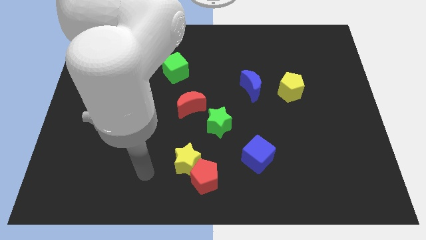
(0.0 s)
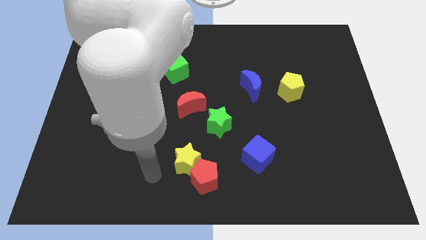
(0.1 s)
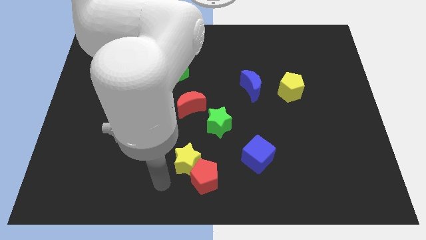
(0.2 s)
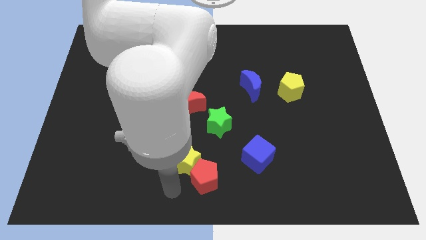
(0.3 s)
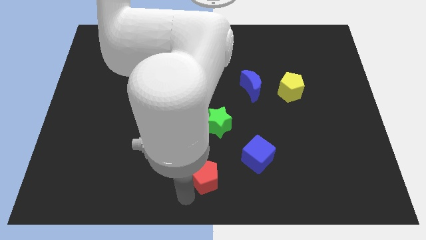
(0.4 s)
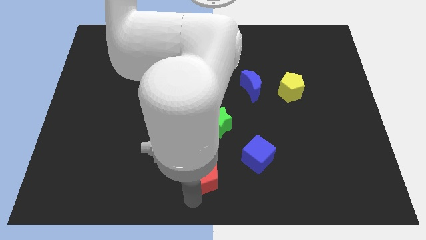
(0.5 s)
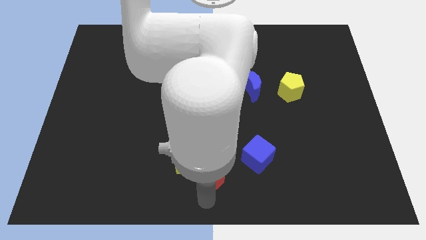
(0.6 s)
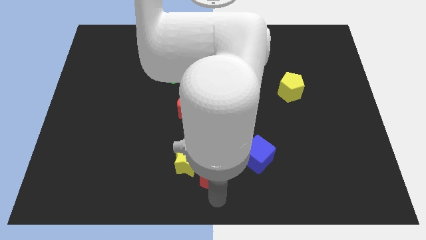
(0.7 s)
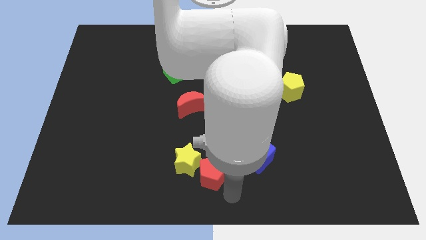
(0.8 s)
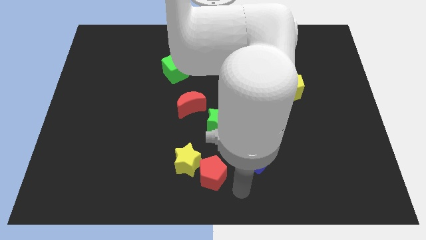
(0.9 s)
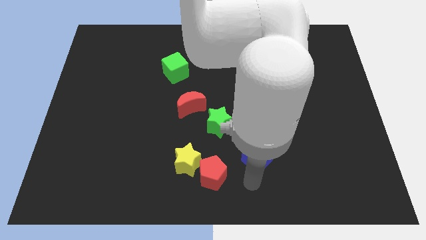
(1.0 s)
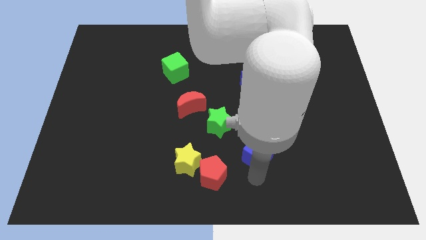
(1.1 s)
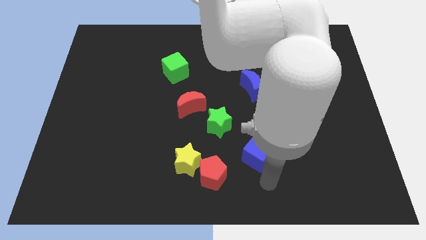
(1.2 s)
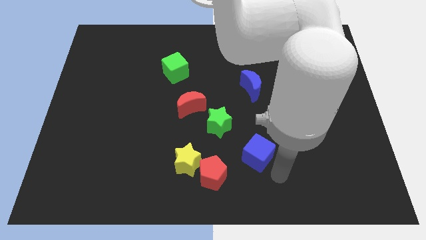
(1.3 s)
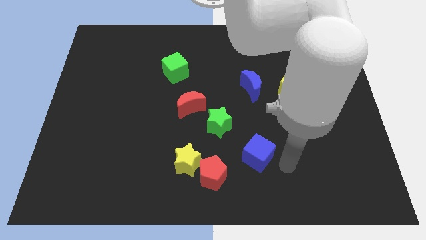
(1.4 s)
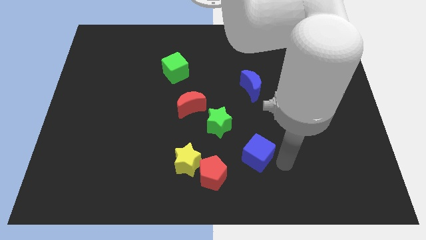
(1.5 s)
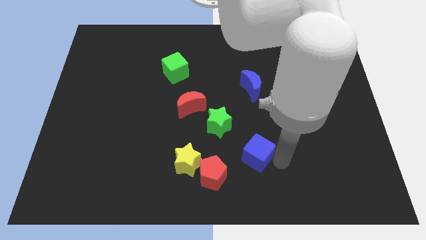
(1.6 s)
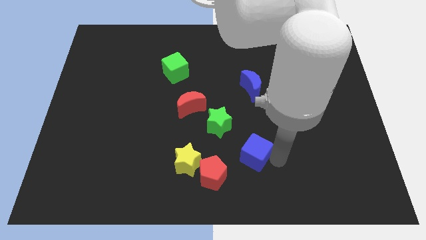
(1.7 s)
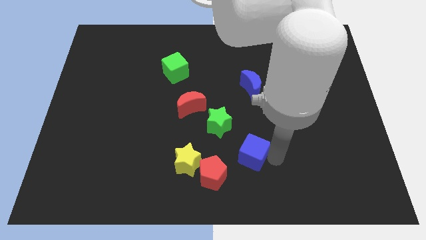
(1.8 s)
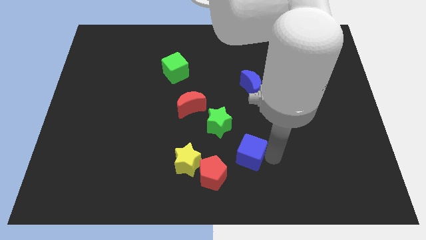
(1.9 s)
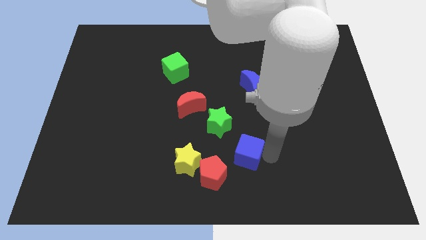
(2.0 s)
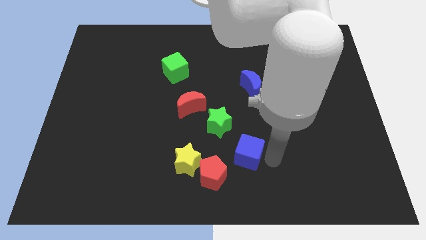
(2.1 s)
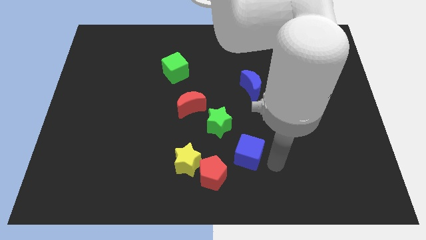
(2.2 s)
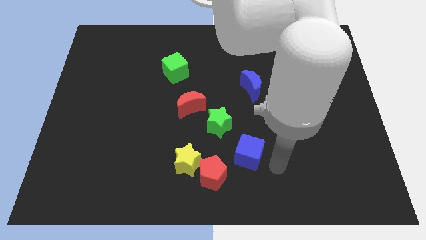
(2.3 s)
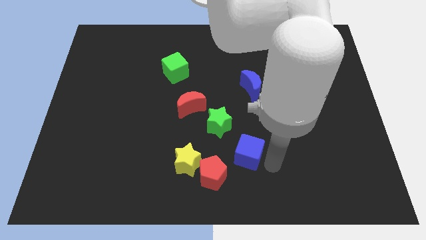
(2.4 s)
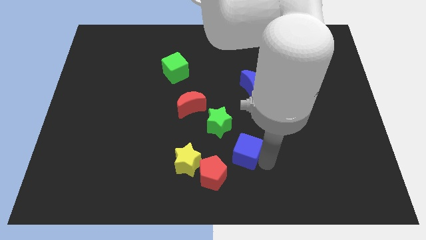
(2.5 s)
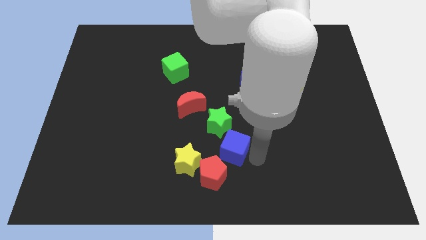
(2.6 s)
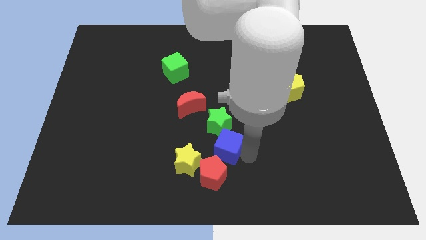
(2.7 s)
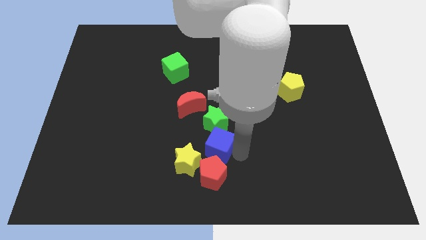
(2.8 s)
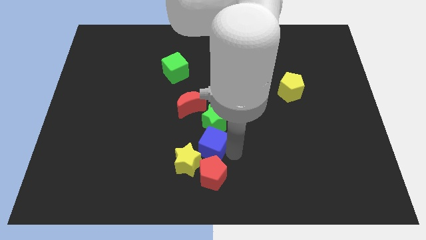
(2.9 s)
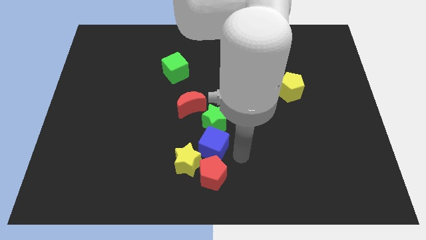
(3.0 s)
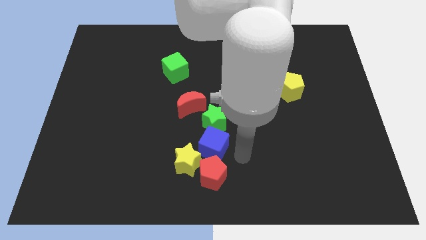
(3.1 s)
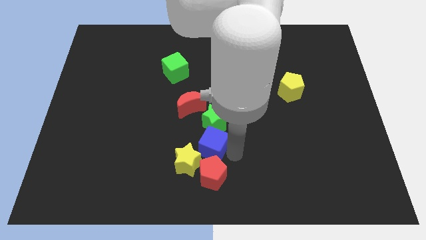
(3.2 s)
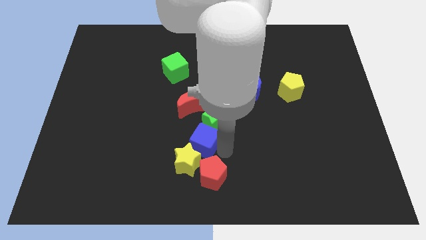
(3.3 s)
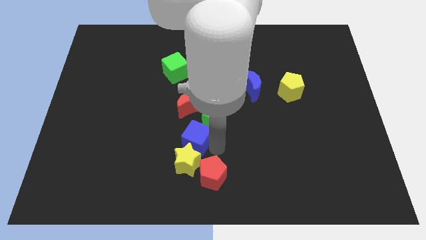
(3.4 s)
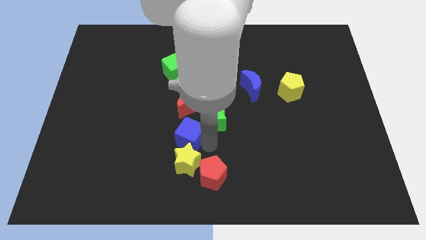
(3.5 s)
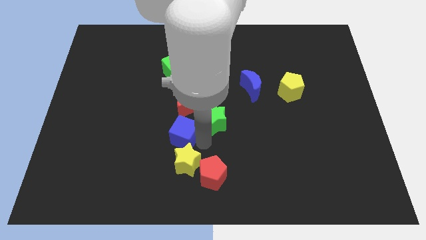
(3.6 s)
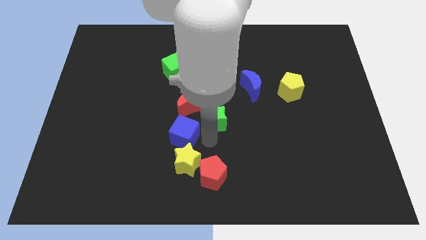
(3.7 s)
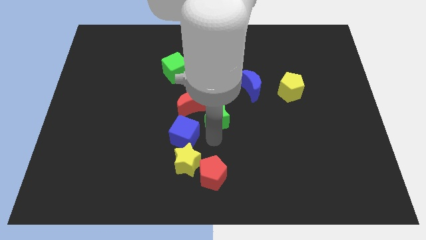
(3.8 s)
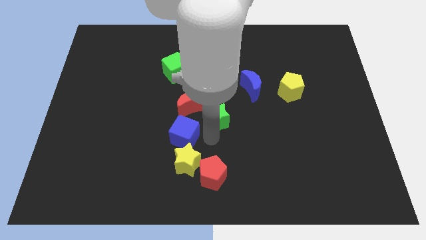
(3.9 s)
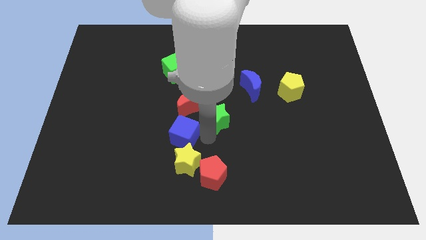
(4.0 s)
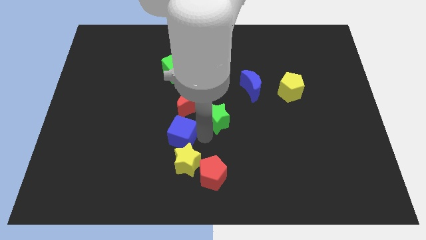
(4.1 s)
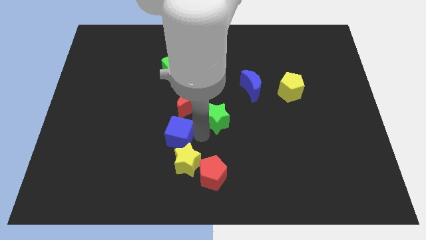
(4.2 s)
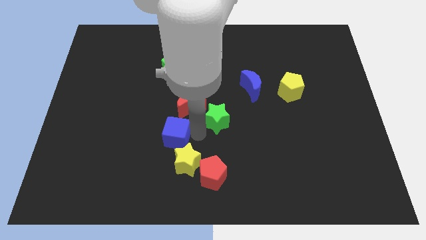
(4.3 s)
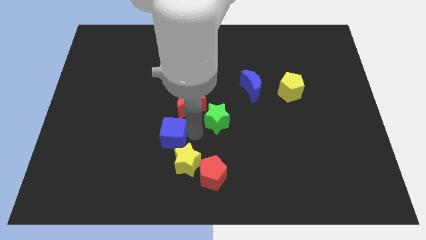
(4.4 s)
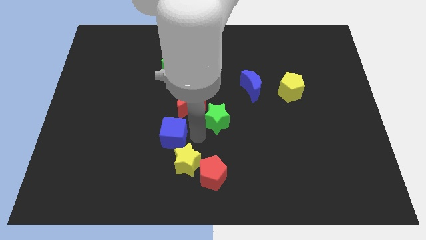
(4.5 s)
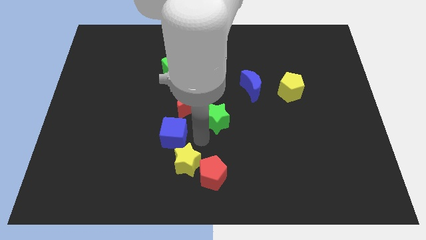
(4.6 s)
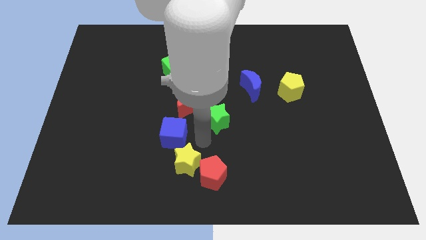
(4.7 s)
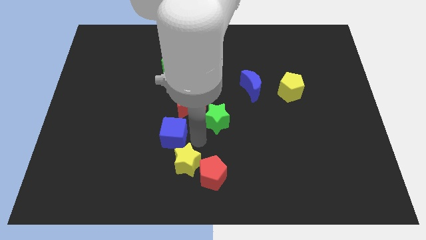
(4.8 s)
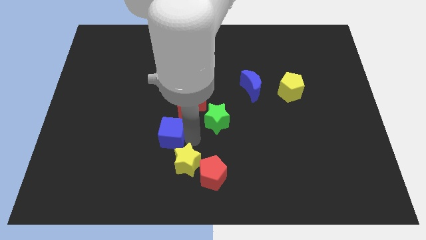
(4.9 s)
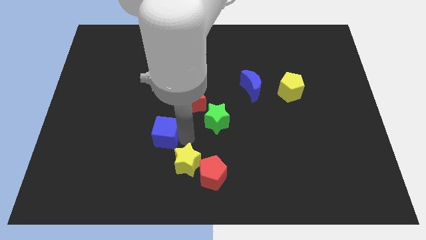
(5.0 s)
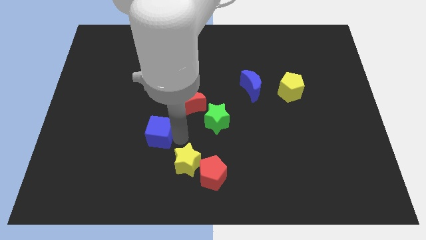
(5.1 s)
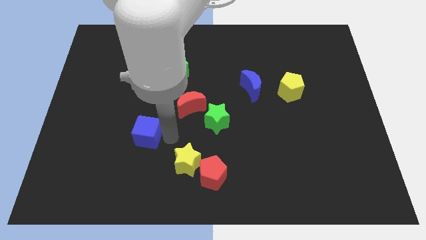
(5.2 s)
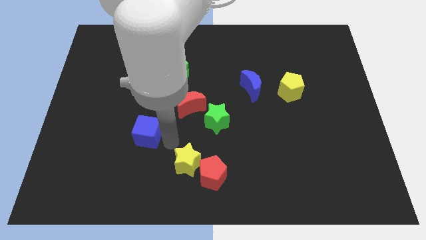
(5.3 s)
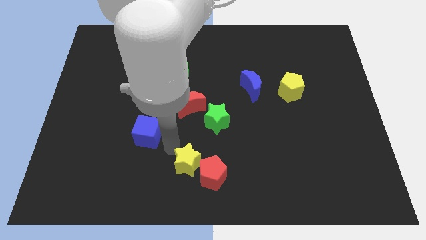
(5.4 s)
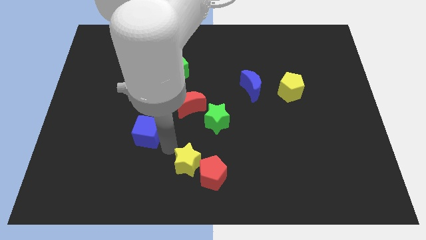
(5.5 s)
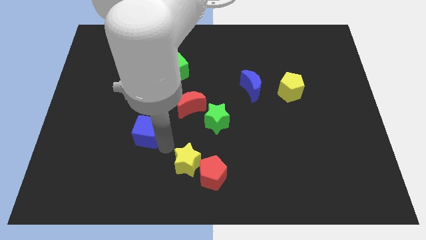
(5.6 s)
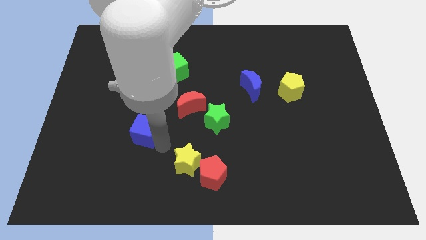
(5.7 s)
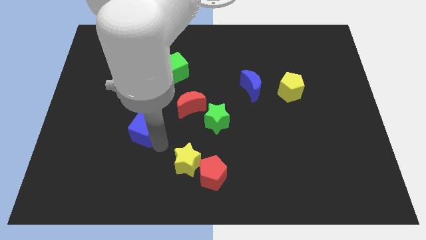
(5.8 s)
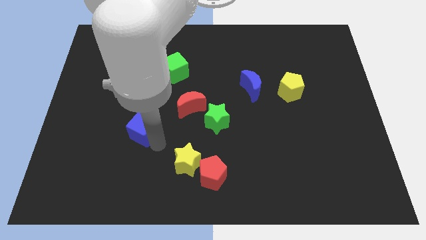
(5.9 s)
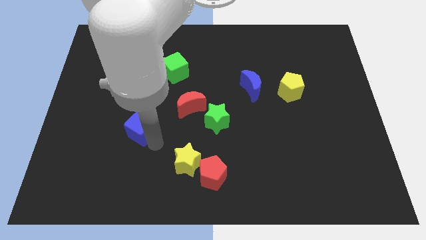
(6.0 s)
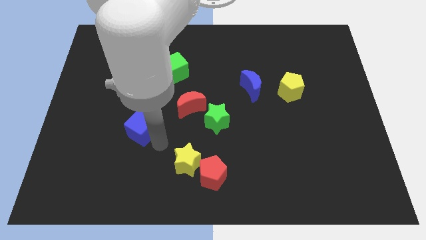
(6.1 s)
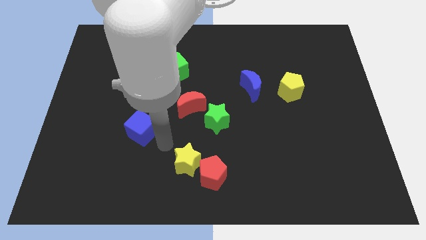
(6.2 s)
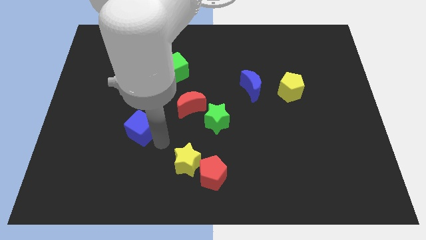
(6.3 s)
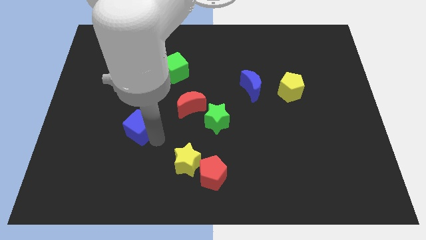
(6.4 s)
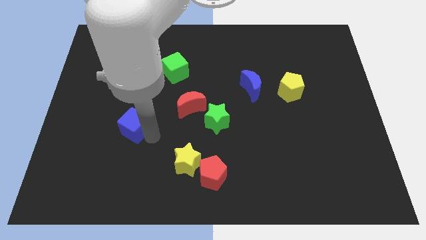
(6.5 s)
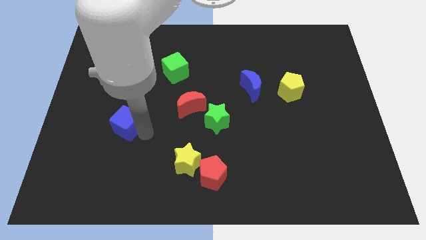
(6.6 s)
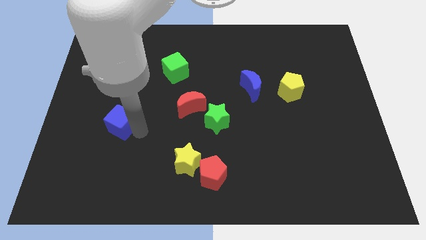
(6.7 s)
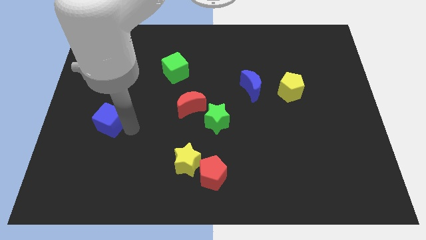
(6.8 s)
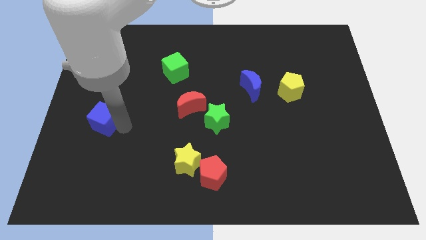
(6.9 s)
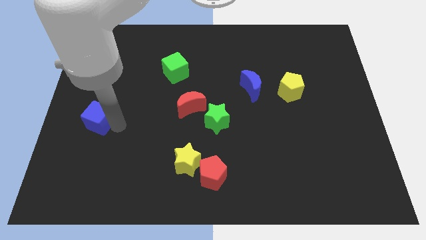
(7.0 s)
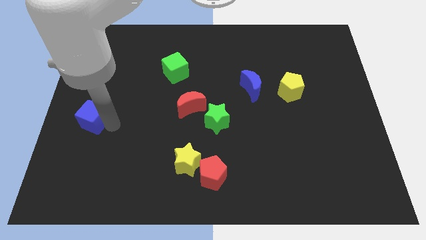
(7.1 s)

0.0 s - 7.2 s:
move the blue cube to the left side

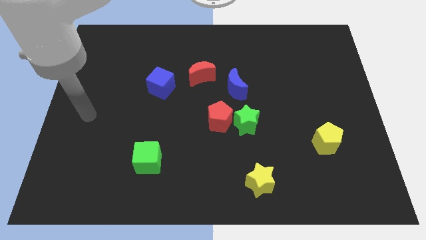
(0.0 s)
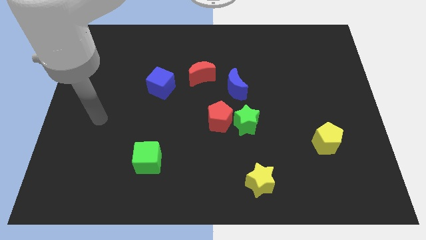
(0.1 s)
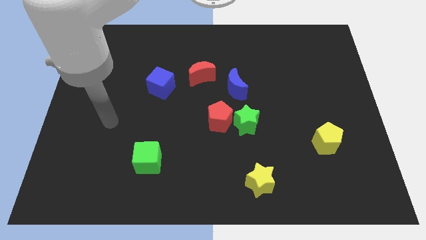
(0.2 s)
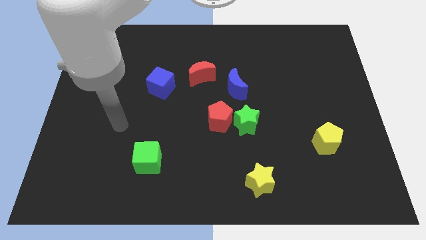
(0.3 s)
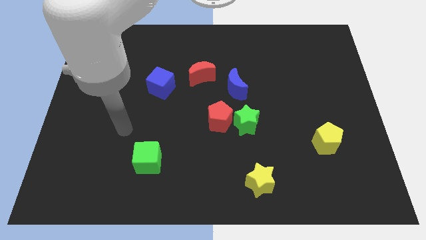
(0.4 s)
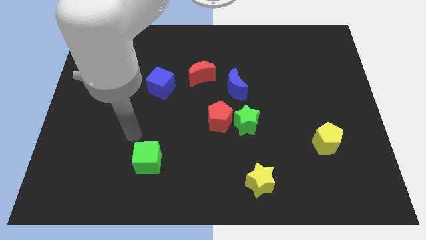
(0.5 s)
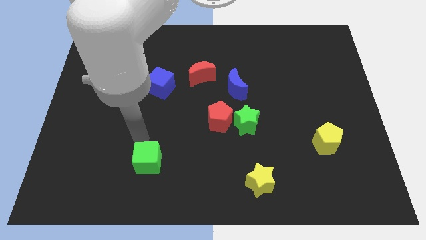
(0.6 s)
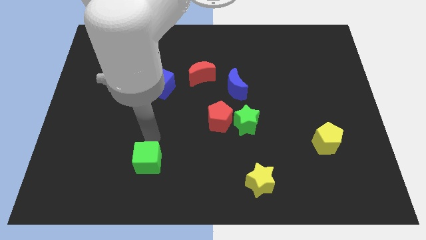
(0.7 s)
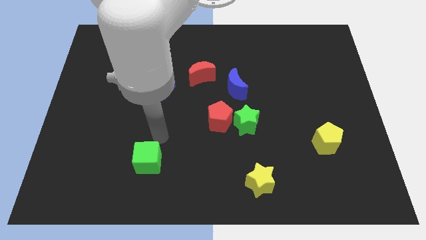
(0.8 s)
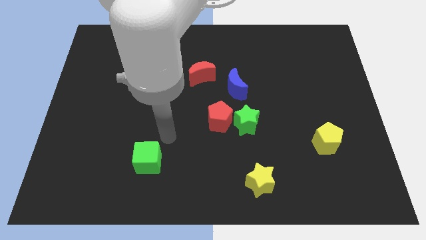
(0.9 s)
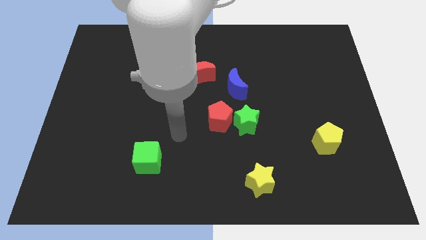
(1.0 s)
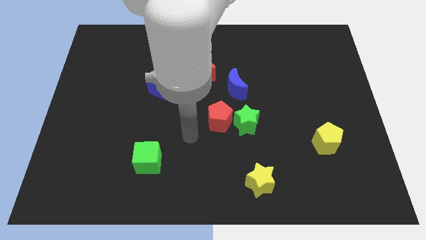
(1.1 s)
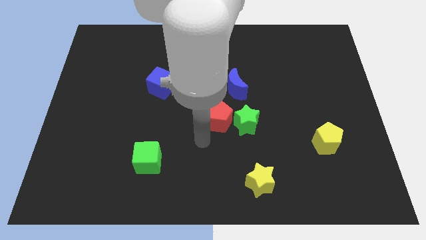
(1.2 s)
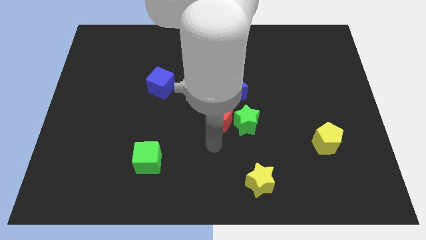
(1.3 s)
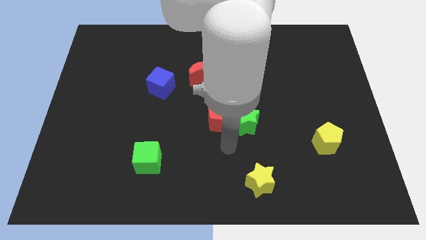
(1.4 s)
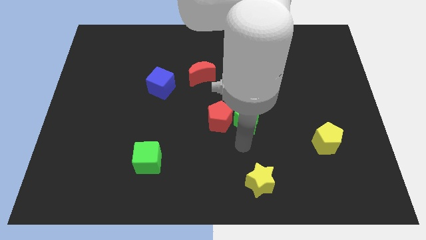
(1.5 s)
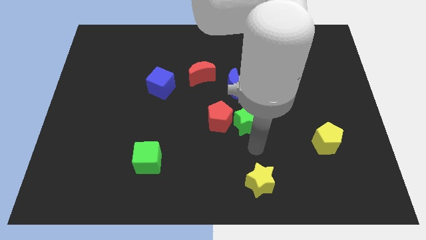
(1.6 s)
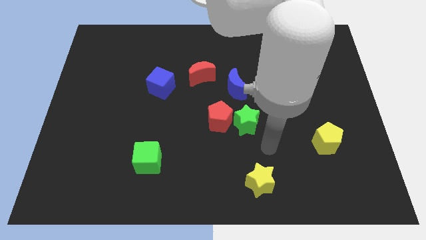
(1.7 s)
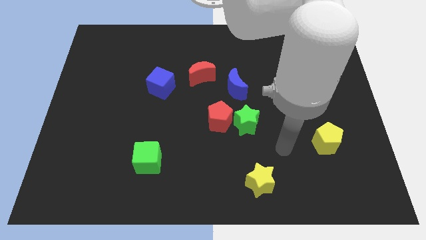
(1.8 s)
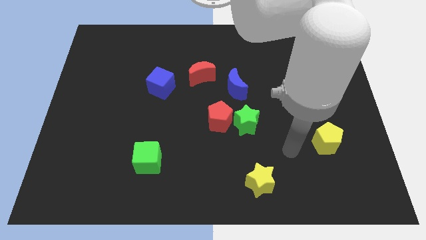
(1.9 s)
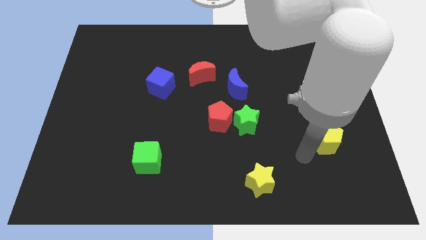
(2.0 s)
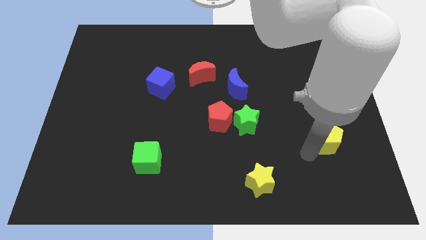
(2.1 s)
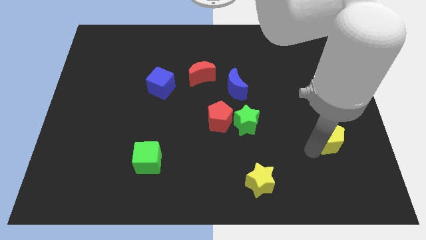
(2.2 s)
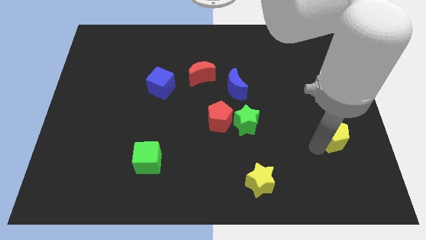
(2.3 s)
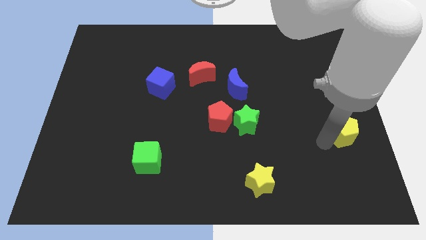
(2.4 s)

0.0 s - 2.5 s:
put the yellow pentagon to the right side
